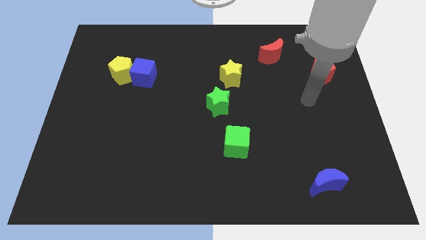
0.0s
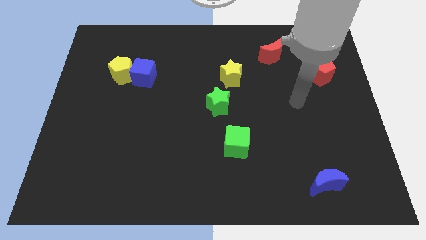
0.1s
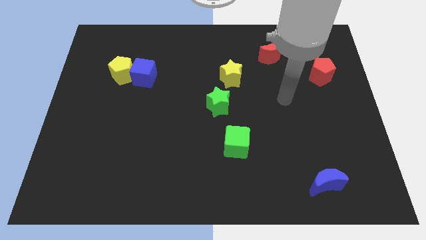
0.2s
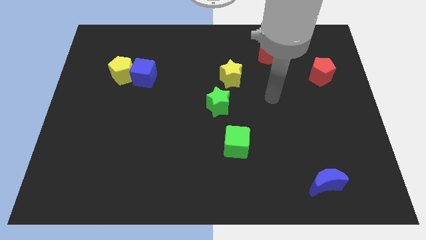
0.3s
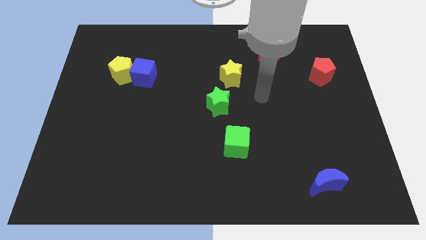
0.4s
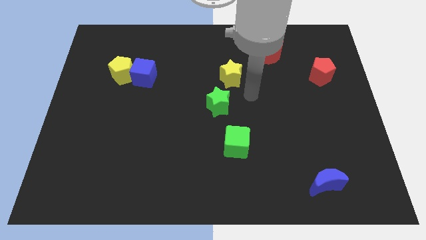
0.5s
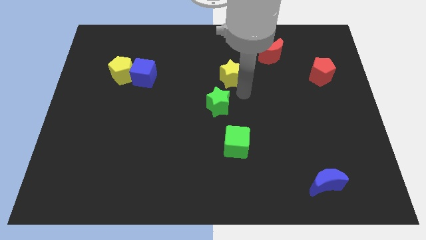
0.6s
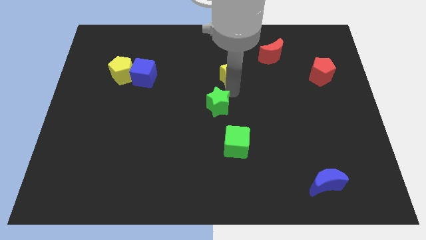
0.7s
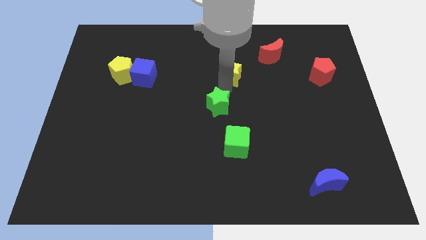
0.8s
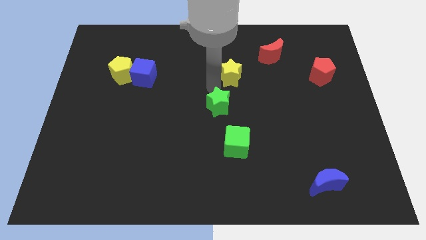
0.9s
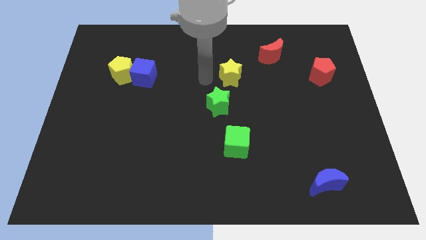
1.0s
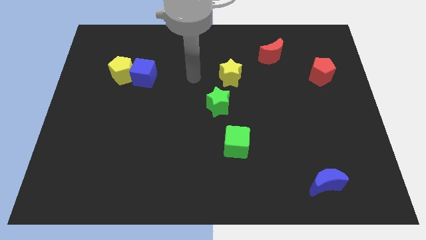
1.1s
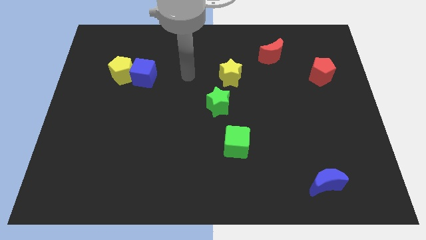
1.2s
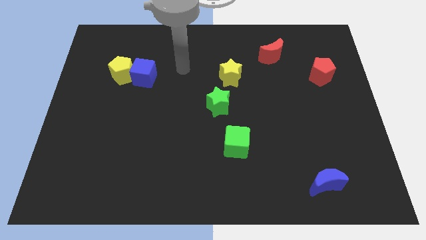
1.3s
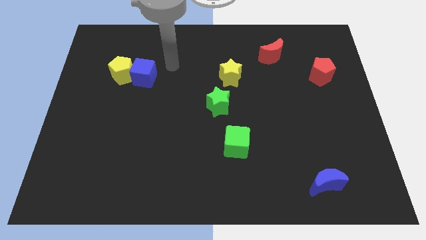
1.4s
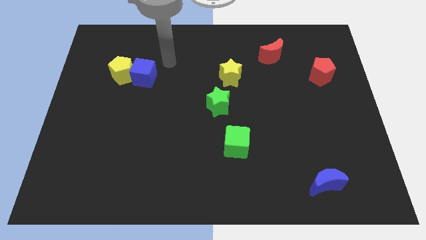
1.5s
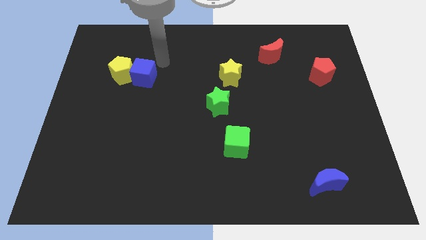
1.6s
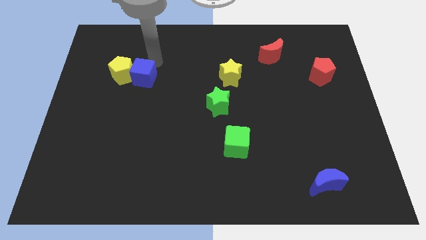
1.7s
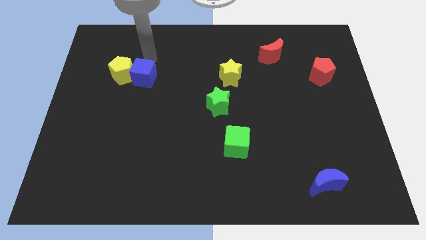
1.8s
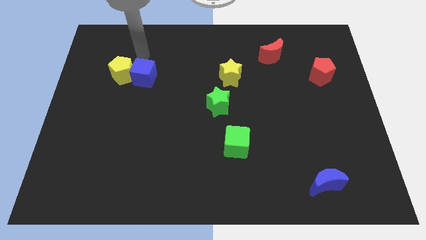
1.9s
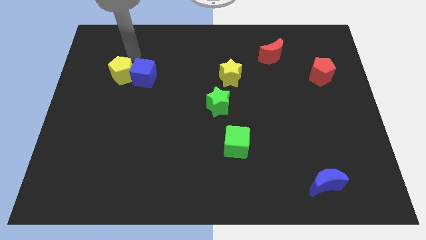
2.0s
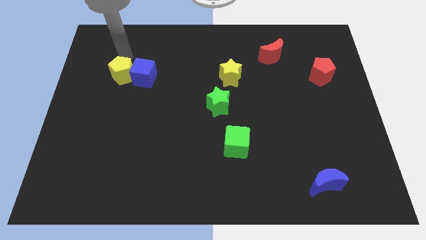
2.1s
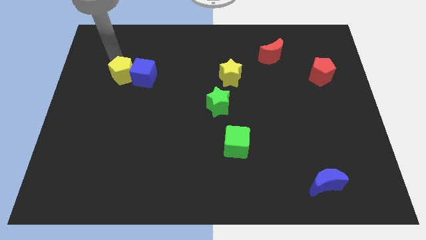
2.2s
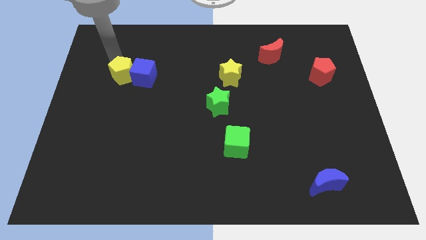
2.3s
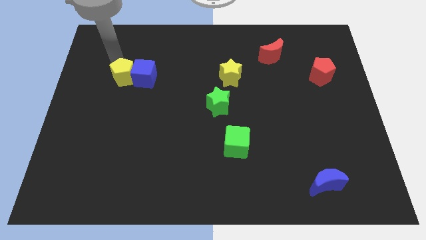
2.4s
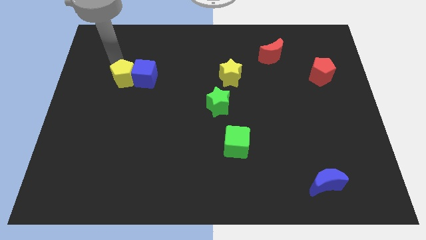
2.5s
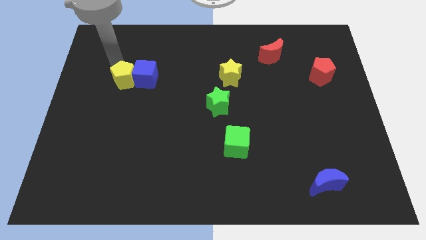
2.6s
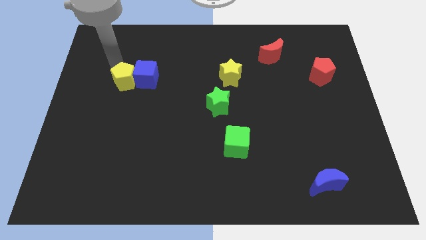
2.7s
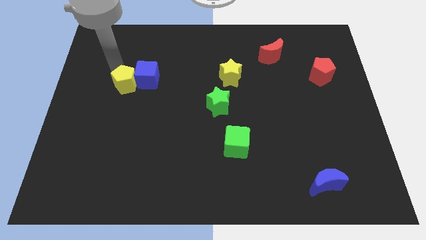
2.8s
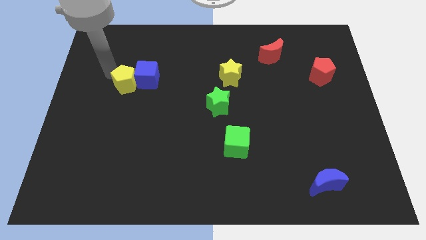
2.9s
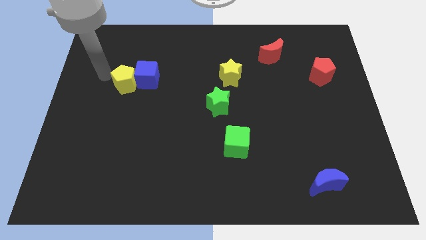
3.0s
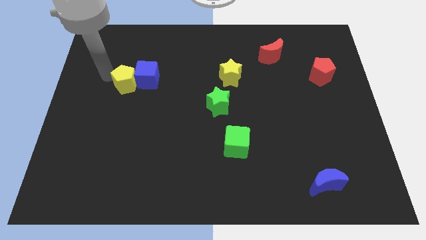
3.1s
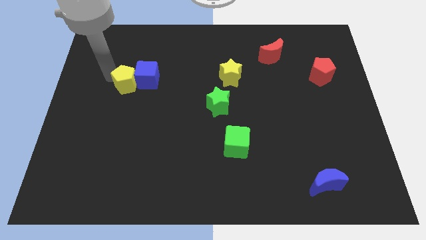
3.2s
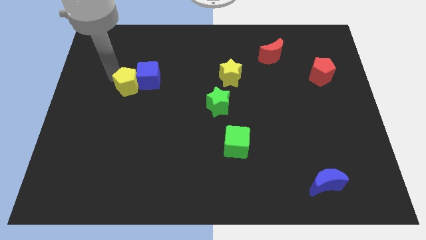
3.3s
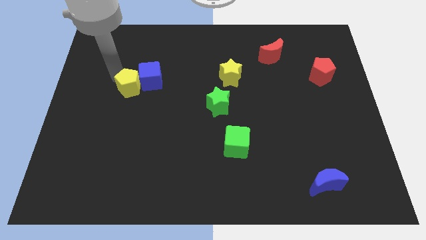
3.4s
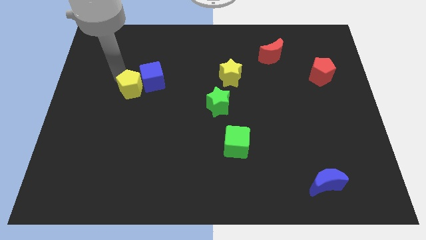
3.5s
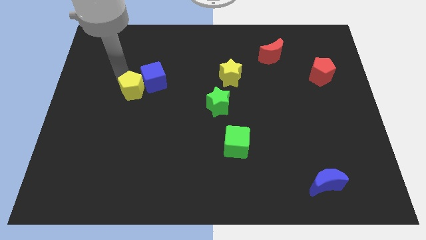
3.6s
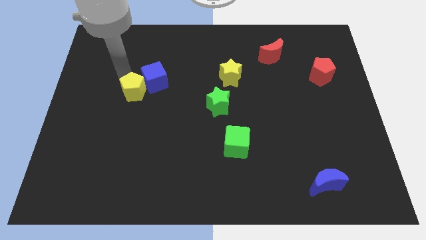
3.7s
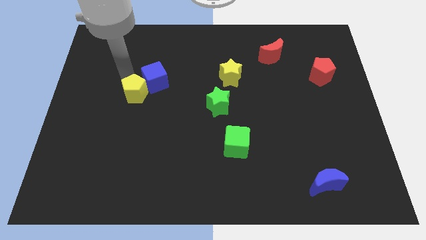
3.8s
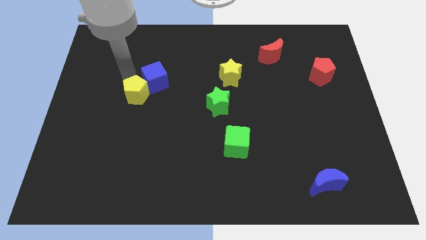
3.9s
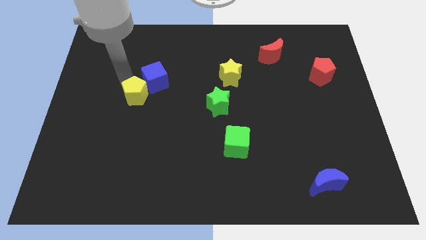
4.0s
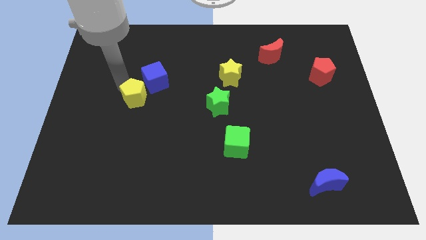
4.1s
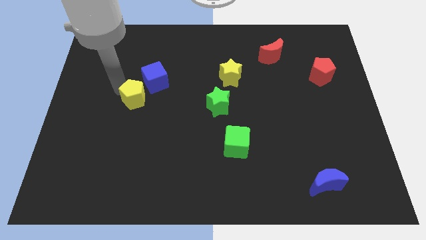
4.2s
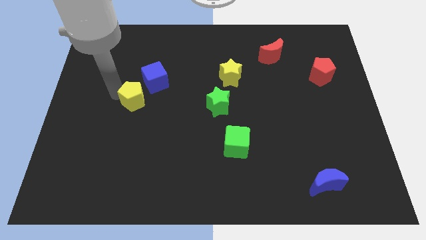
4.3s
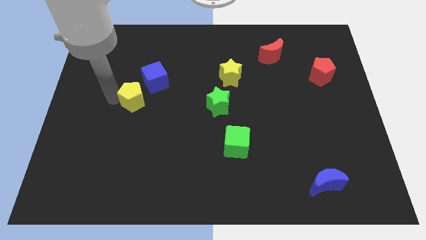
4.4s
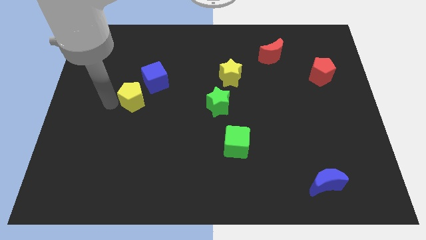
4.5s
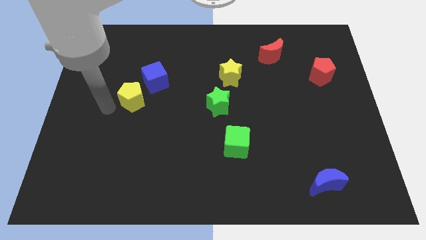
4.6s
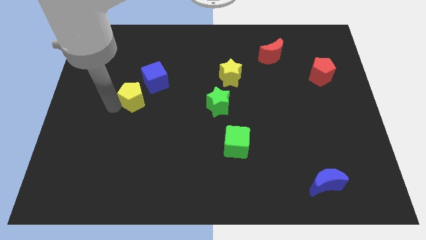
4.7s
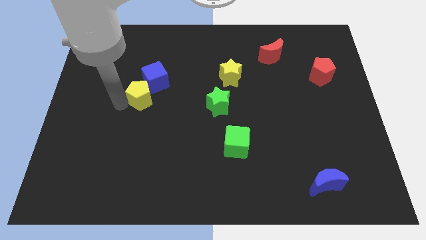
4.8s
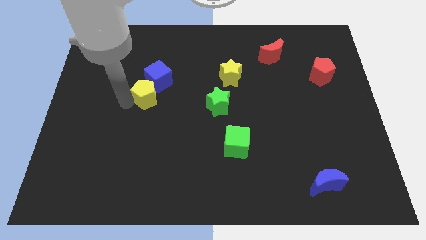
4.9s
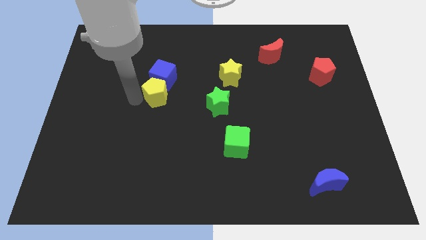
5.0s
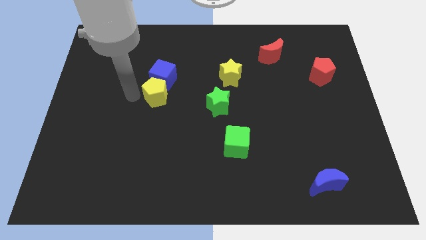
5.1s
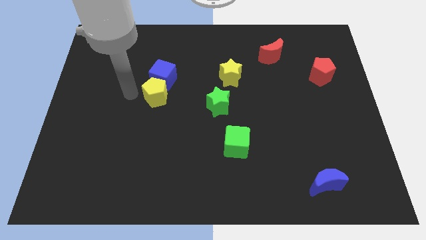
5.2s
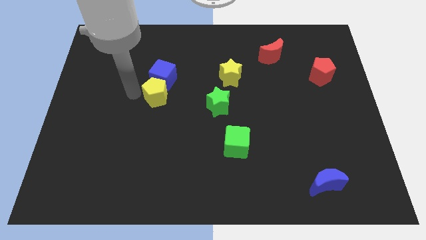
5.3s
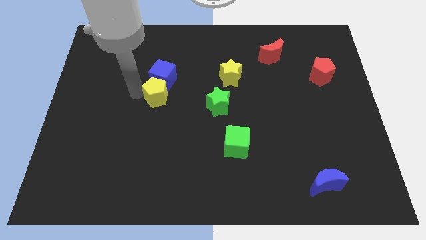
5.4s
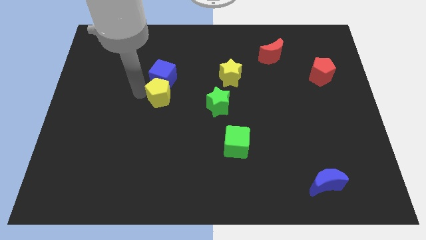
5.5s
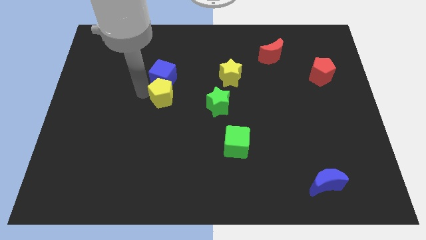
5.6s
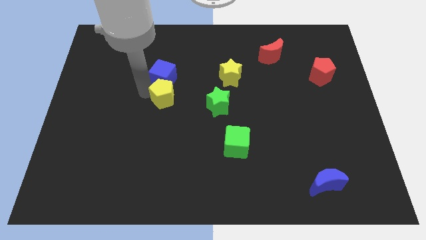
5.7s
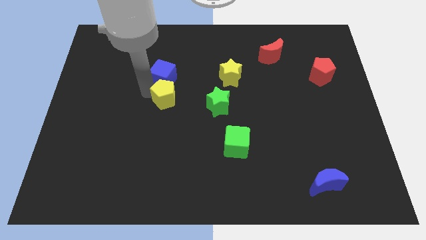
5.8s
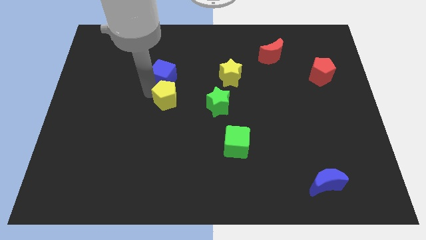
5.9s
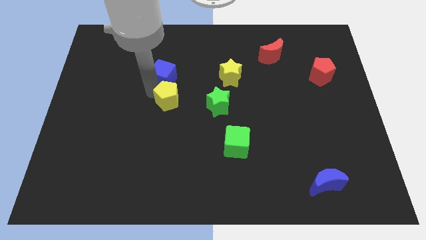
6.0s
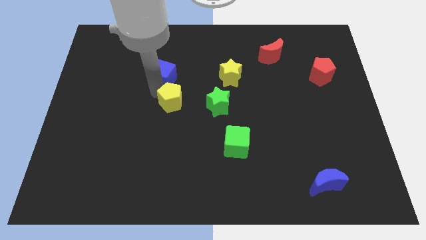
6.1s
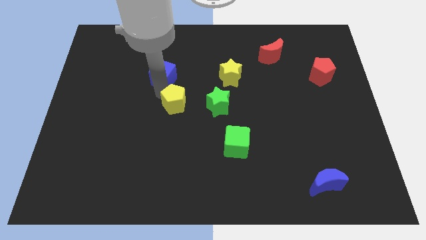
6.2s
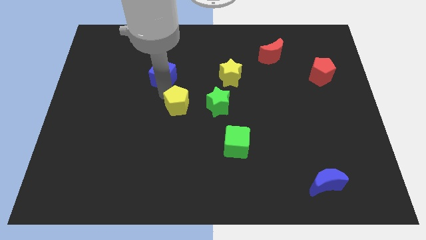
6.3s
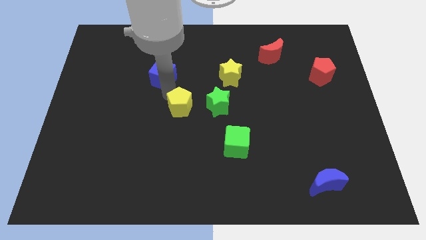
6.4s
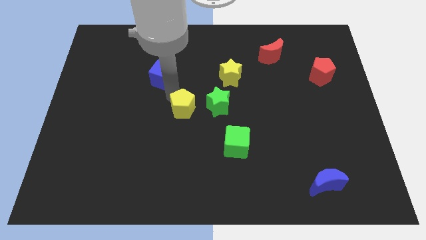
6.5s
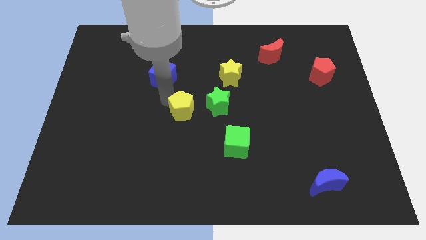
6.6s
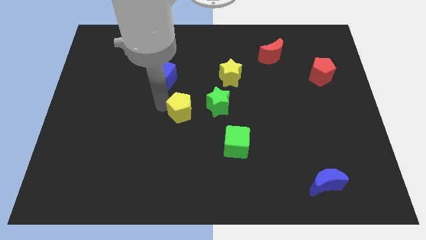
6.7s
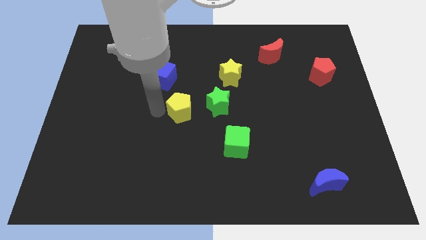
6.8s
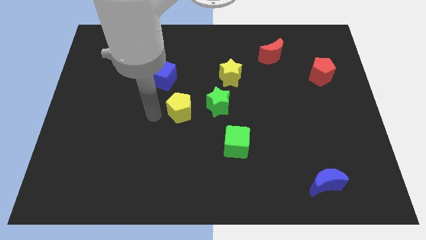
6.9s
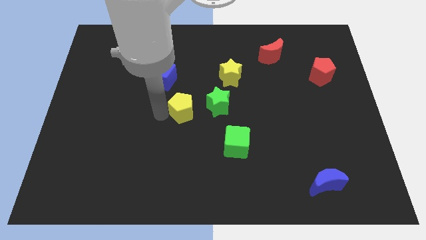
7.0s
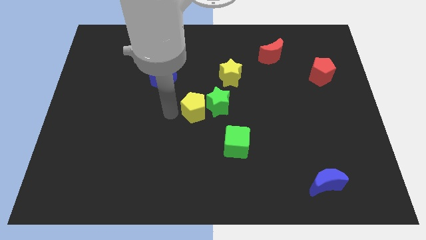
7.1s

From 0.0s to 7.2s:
put the yellow pentagon next to the green star
